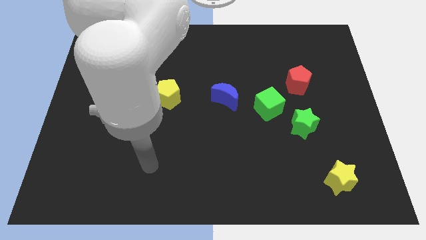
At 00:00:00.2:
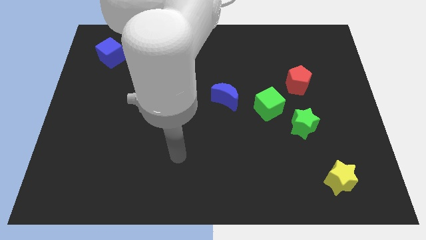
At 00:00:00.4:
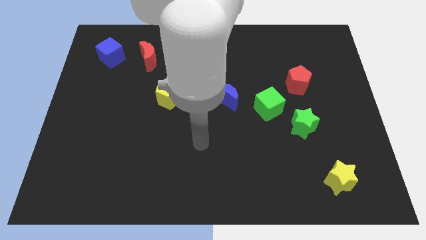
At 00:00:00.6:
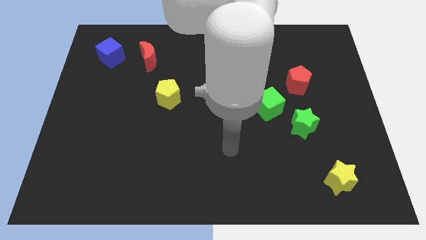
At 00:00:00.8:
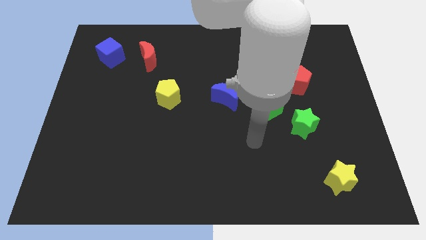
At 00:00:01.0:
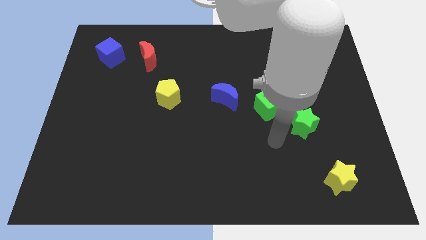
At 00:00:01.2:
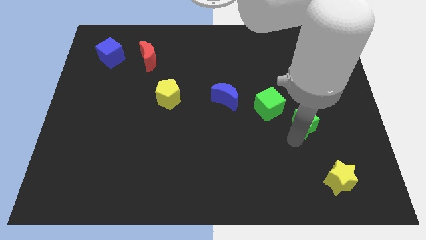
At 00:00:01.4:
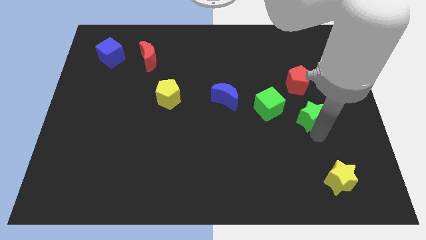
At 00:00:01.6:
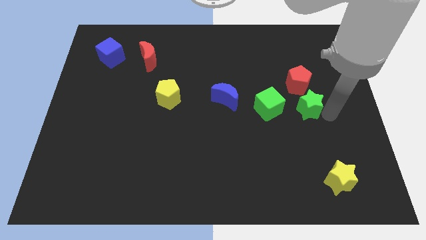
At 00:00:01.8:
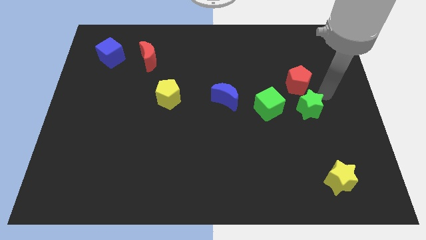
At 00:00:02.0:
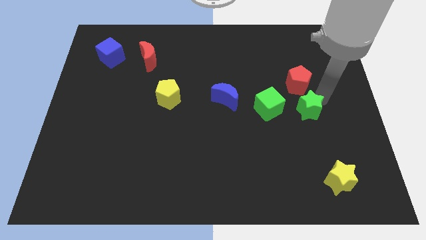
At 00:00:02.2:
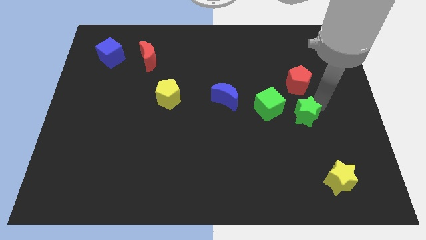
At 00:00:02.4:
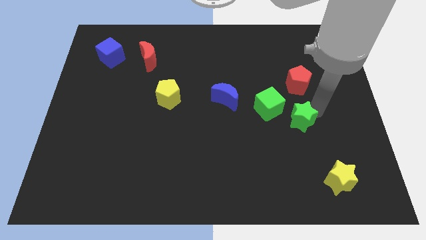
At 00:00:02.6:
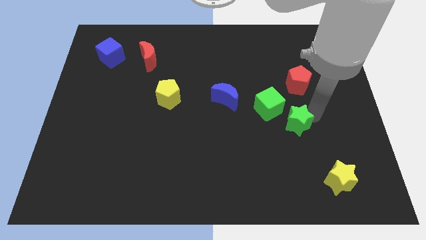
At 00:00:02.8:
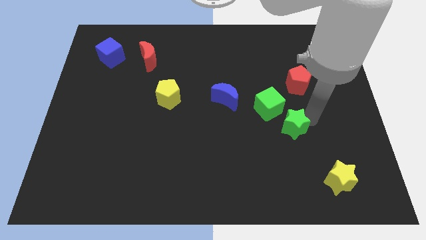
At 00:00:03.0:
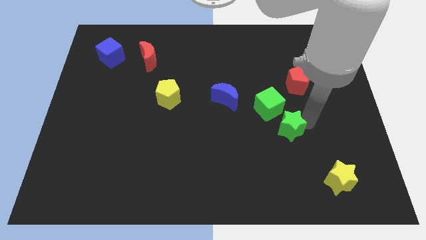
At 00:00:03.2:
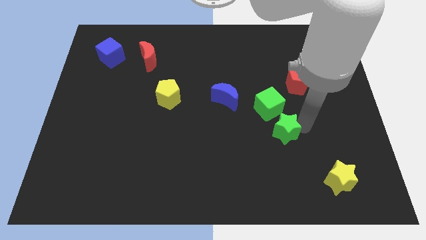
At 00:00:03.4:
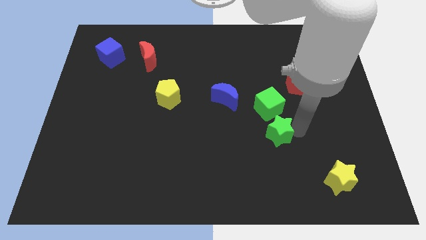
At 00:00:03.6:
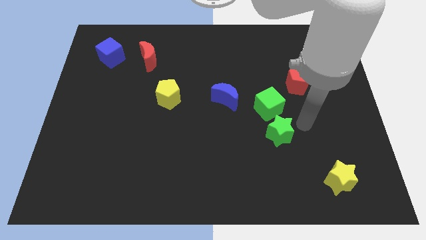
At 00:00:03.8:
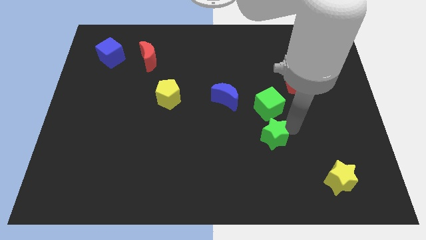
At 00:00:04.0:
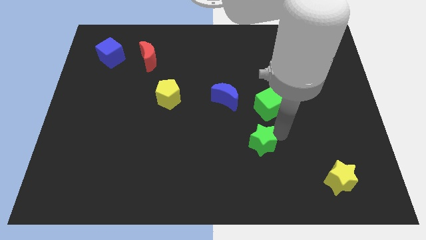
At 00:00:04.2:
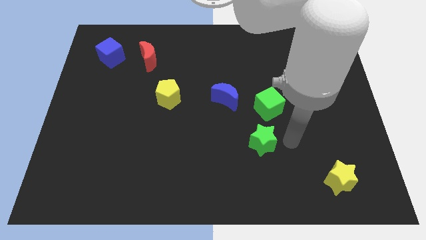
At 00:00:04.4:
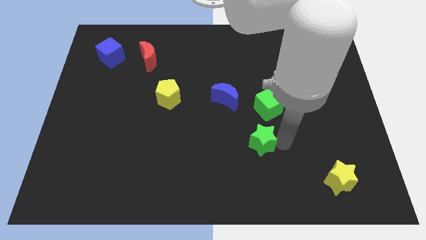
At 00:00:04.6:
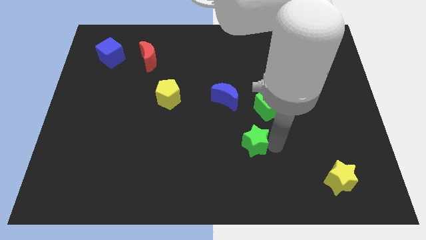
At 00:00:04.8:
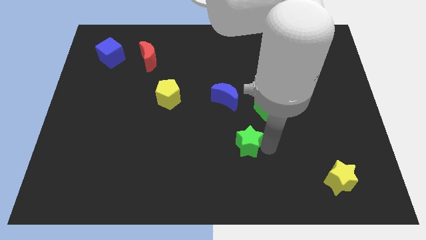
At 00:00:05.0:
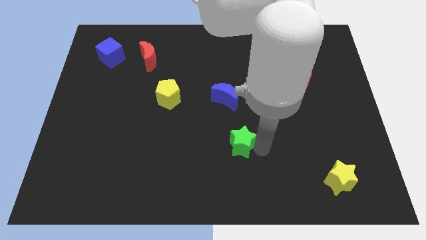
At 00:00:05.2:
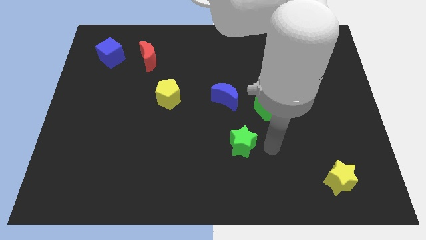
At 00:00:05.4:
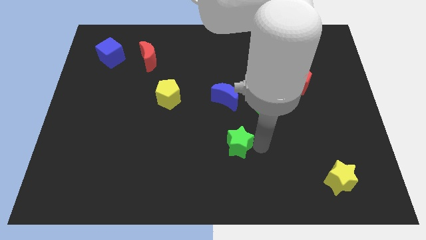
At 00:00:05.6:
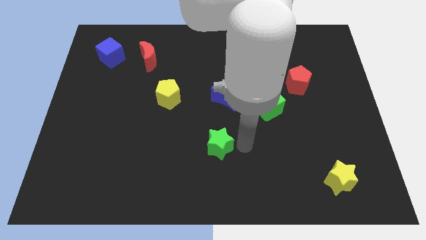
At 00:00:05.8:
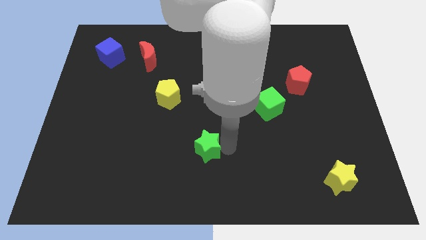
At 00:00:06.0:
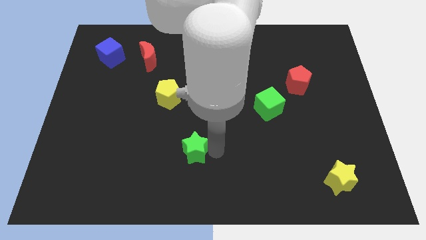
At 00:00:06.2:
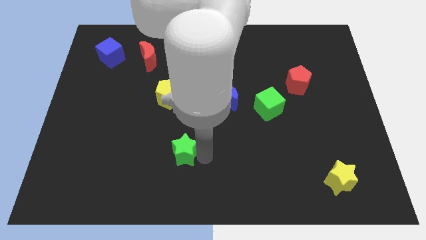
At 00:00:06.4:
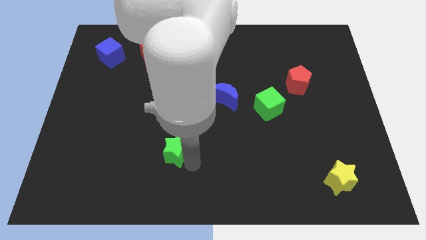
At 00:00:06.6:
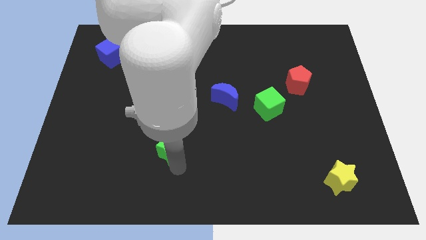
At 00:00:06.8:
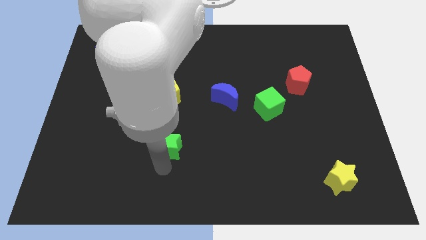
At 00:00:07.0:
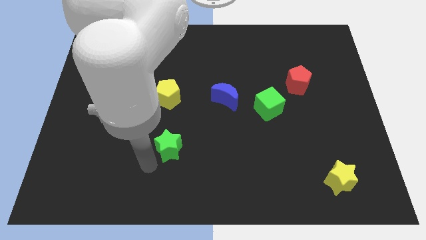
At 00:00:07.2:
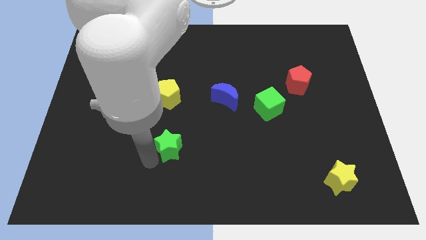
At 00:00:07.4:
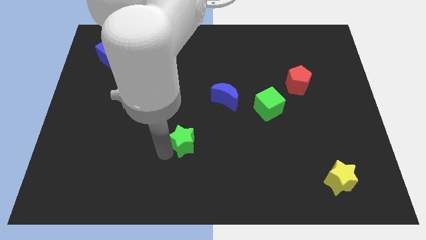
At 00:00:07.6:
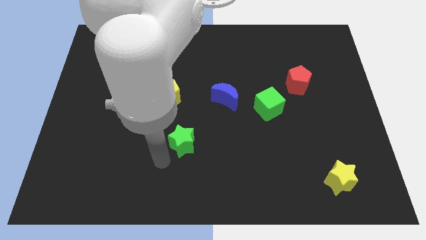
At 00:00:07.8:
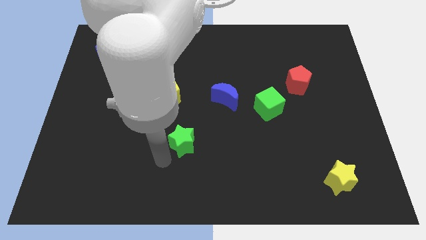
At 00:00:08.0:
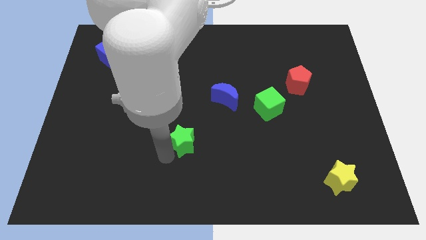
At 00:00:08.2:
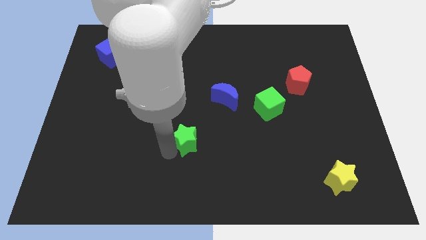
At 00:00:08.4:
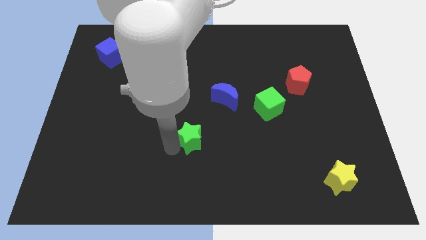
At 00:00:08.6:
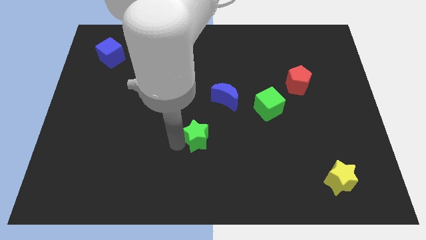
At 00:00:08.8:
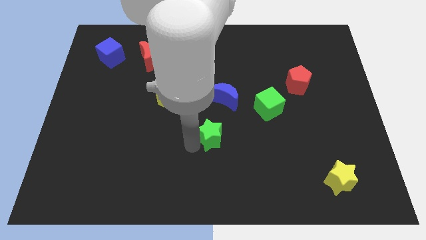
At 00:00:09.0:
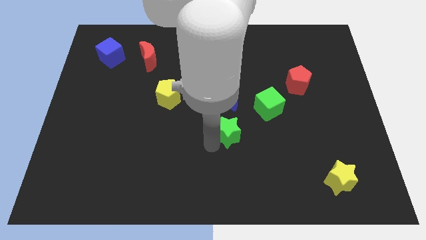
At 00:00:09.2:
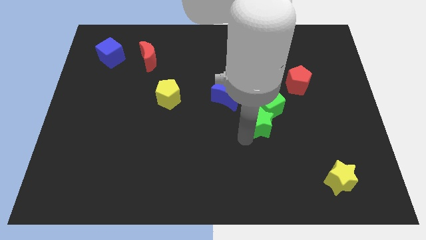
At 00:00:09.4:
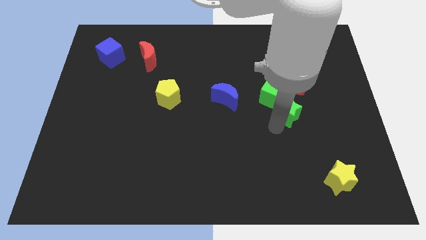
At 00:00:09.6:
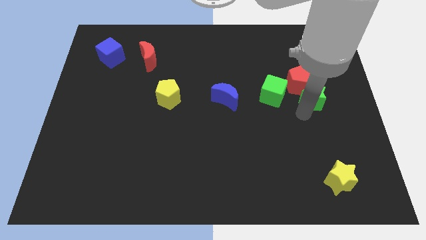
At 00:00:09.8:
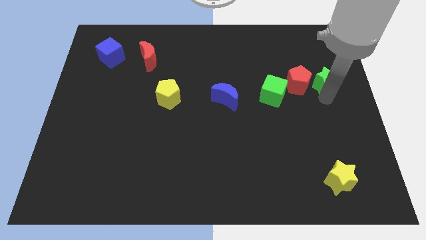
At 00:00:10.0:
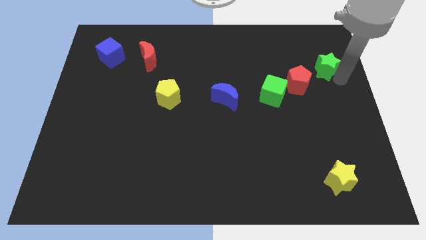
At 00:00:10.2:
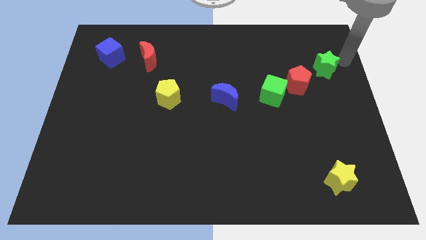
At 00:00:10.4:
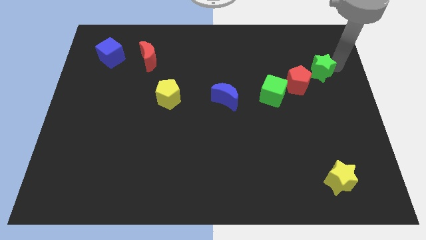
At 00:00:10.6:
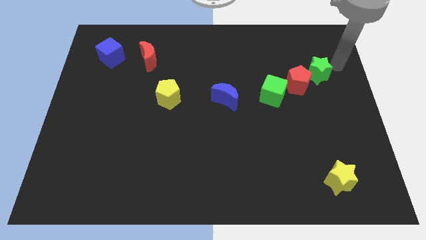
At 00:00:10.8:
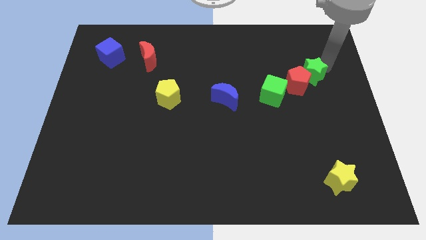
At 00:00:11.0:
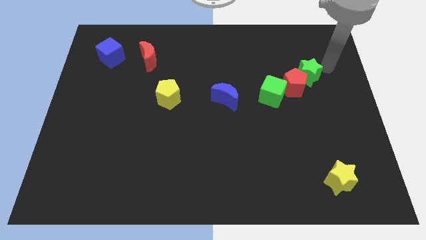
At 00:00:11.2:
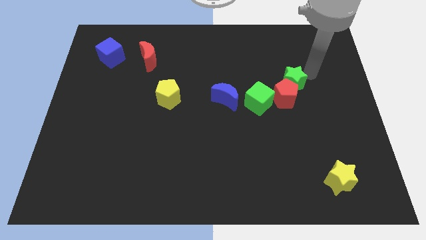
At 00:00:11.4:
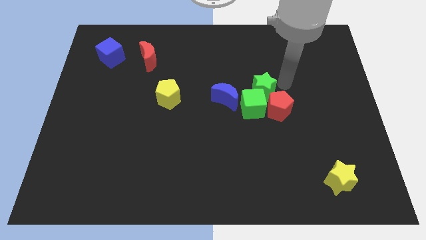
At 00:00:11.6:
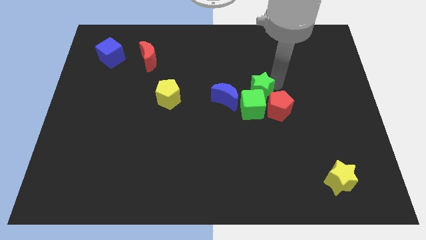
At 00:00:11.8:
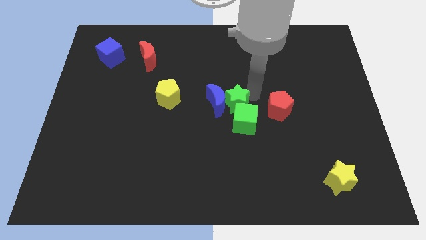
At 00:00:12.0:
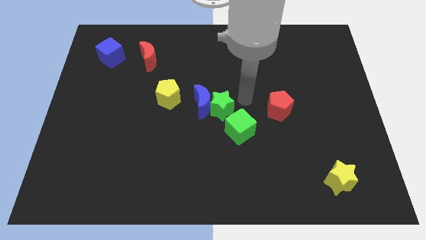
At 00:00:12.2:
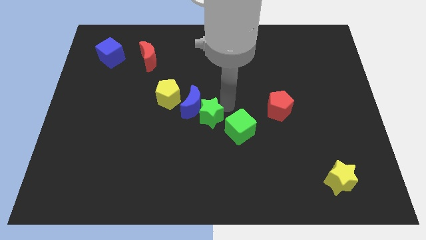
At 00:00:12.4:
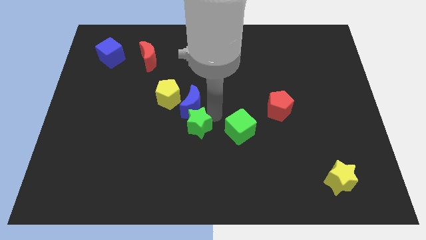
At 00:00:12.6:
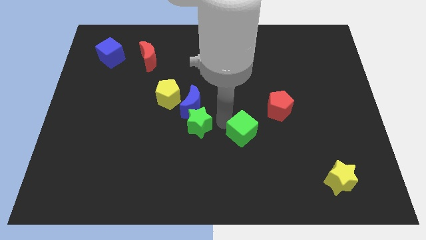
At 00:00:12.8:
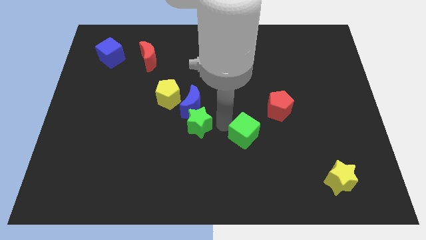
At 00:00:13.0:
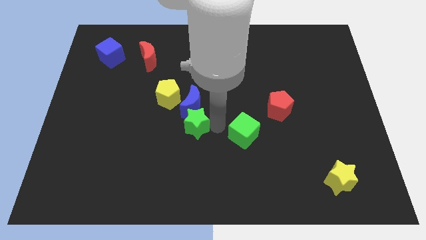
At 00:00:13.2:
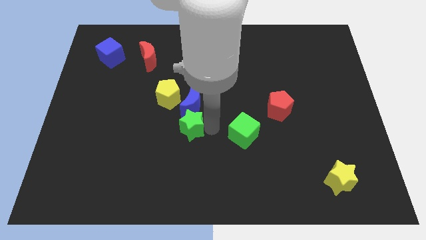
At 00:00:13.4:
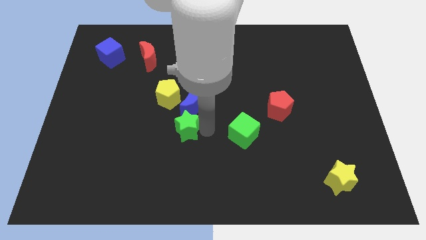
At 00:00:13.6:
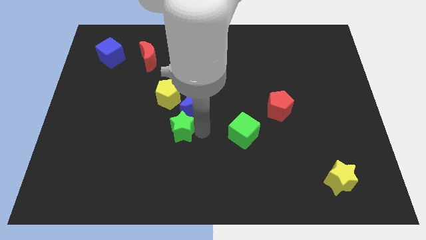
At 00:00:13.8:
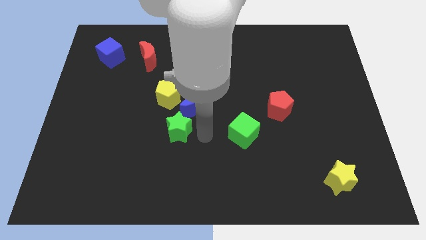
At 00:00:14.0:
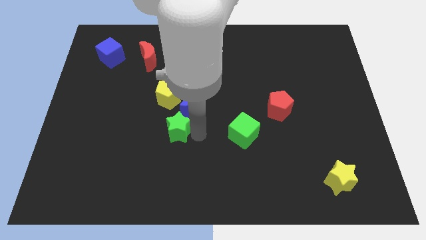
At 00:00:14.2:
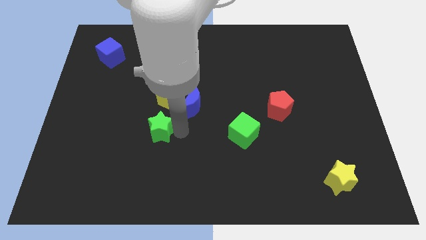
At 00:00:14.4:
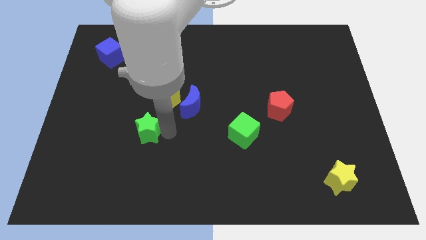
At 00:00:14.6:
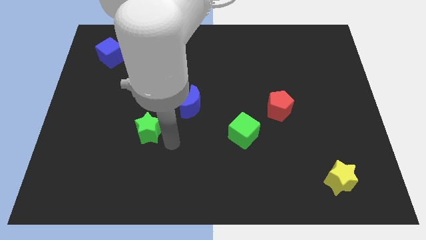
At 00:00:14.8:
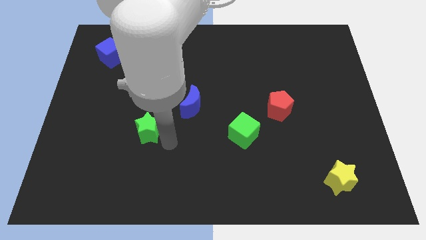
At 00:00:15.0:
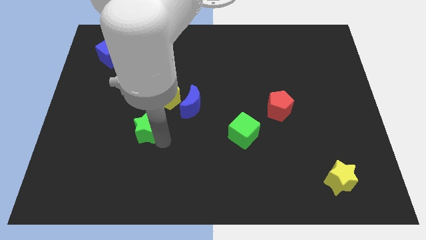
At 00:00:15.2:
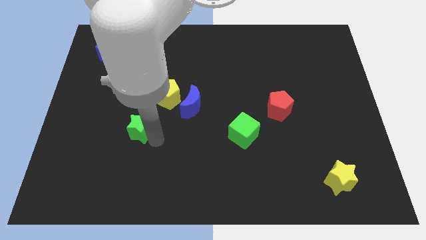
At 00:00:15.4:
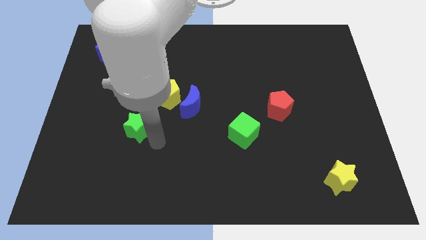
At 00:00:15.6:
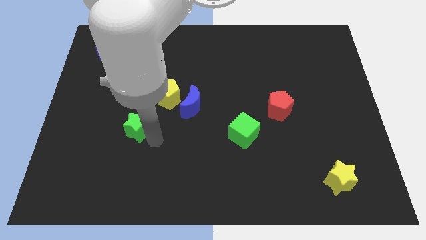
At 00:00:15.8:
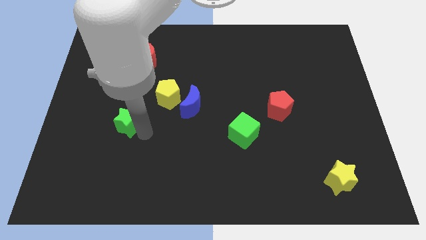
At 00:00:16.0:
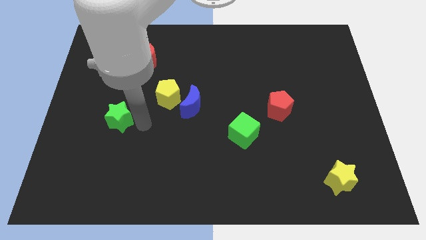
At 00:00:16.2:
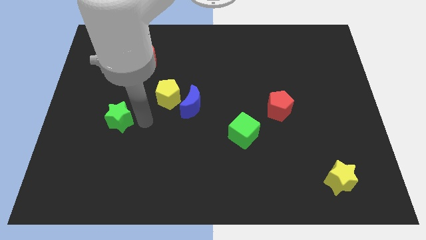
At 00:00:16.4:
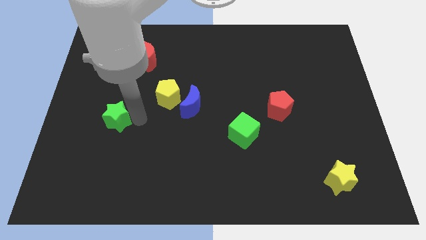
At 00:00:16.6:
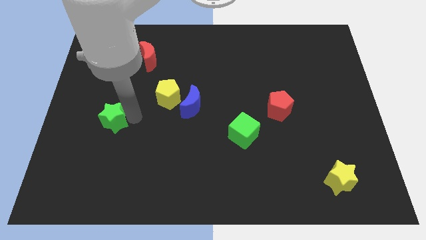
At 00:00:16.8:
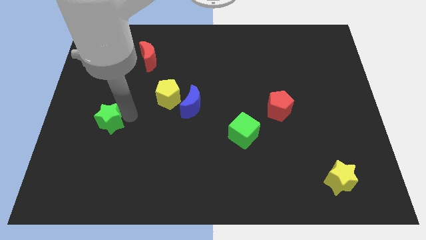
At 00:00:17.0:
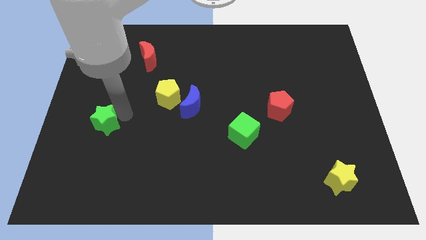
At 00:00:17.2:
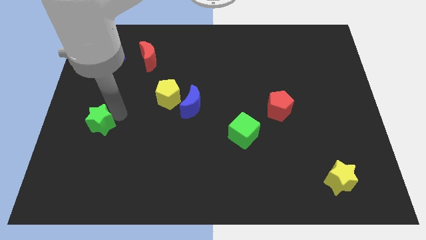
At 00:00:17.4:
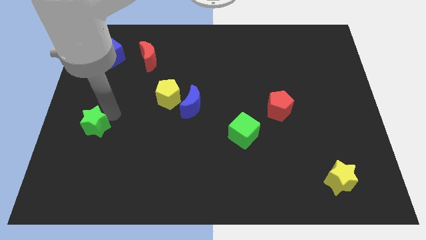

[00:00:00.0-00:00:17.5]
put the green star to the center left
